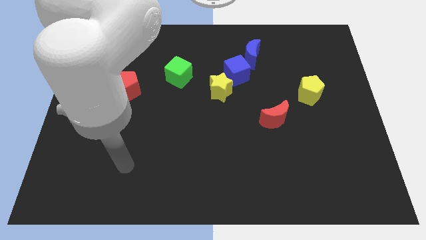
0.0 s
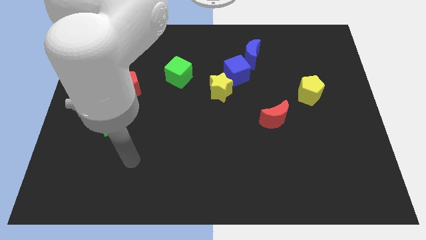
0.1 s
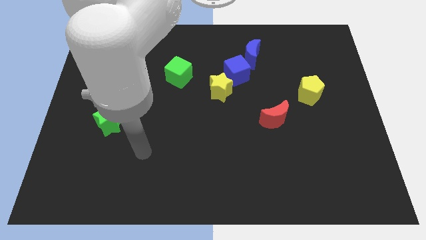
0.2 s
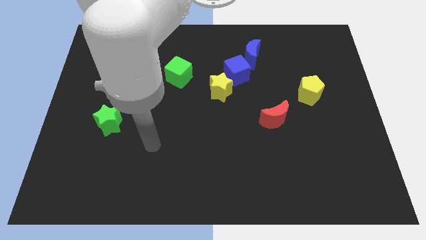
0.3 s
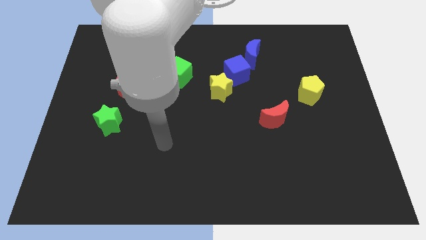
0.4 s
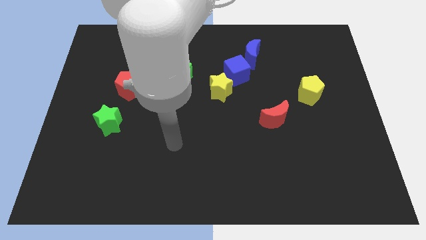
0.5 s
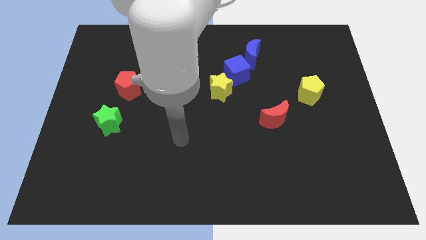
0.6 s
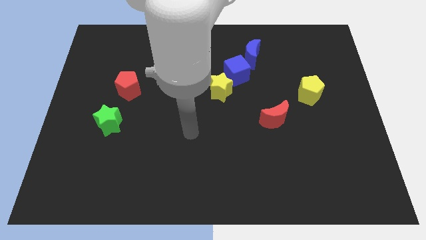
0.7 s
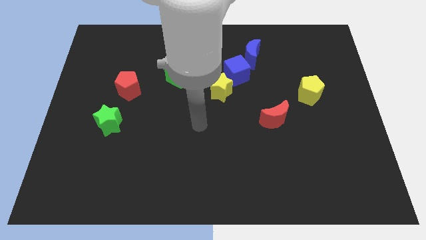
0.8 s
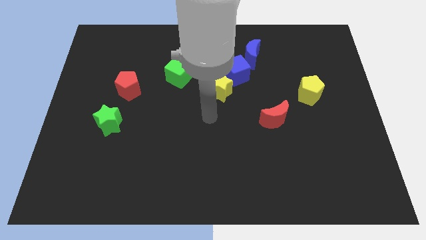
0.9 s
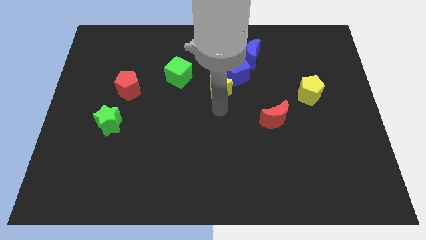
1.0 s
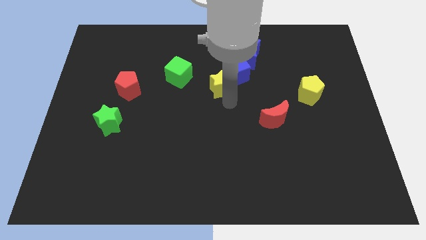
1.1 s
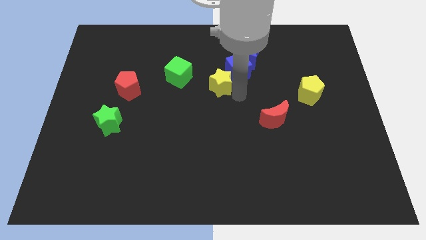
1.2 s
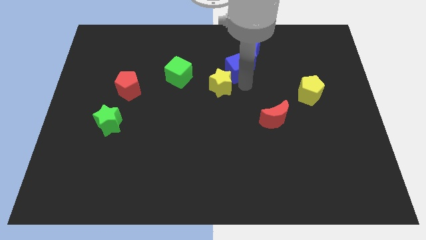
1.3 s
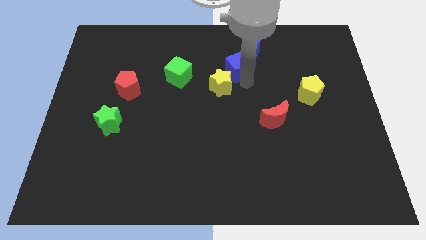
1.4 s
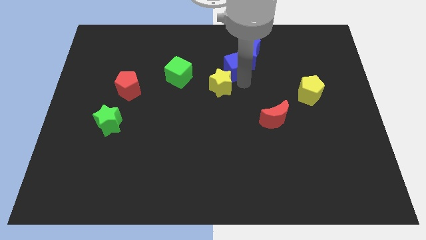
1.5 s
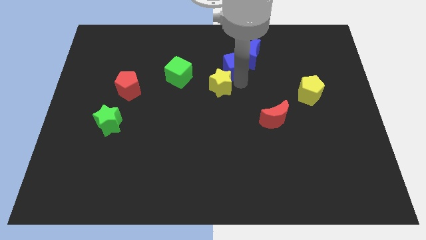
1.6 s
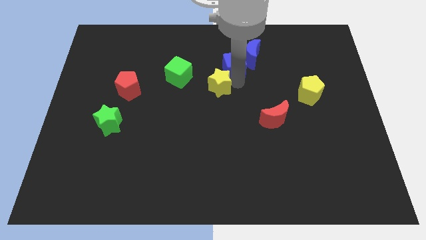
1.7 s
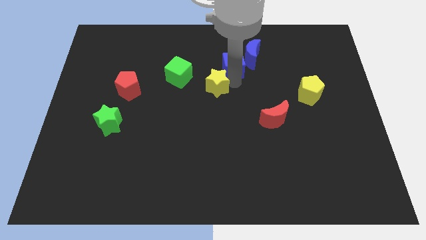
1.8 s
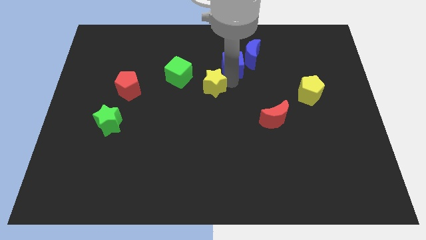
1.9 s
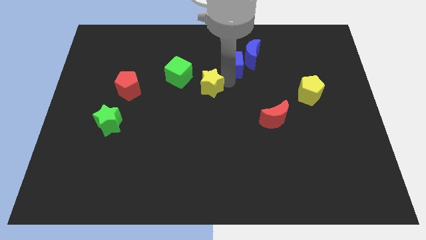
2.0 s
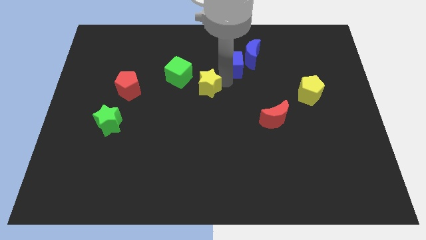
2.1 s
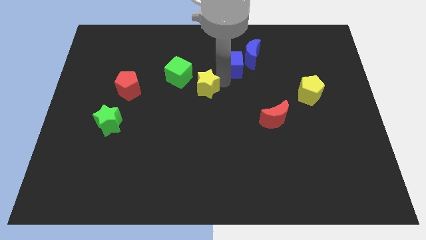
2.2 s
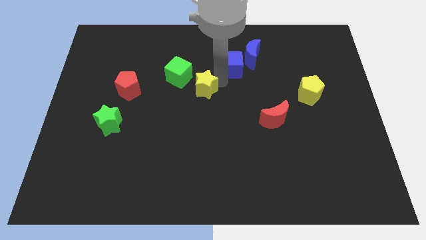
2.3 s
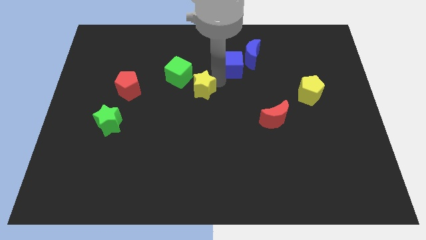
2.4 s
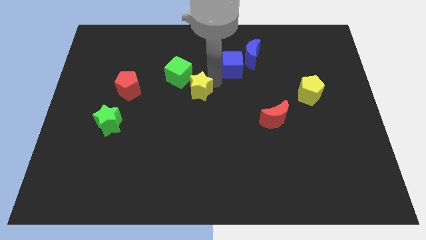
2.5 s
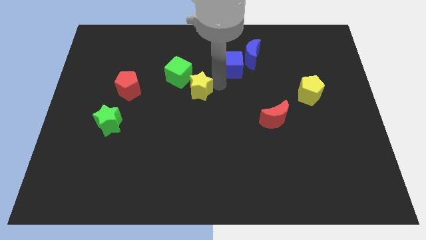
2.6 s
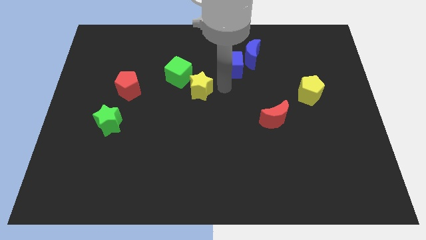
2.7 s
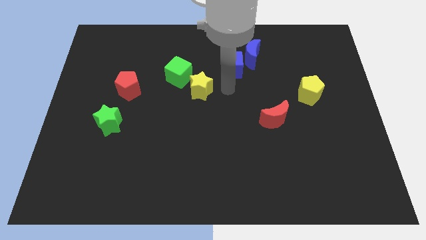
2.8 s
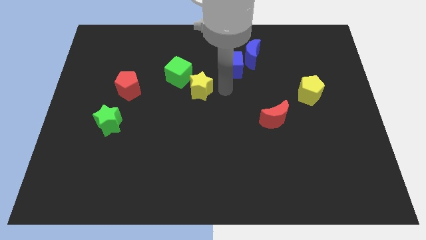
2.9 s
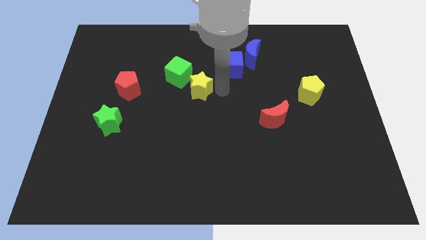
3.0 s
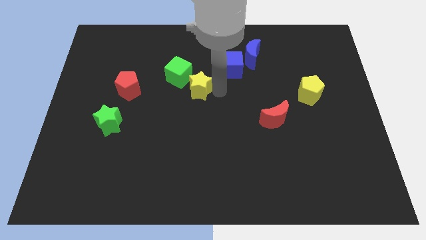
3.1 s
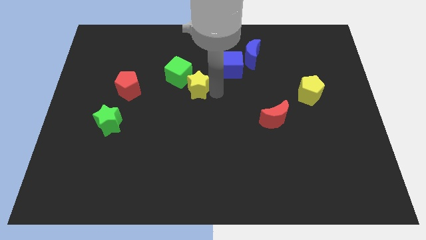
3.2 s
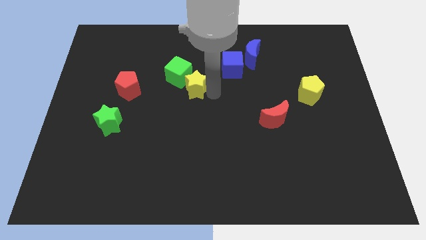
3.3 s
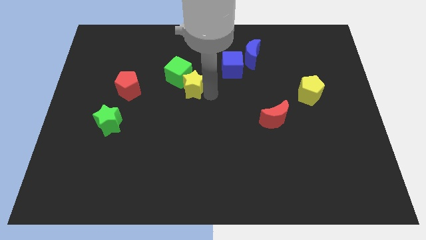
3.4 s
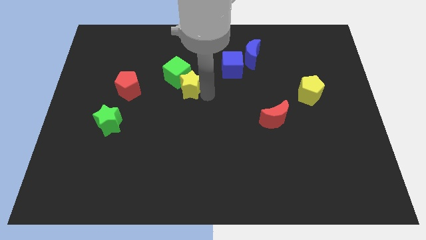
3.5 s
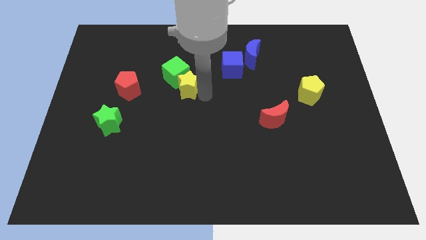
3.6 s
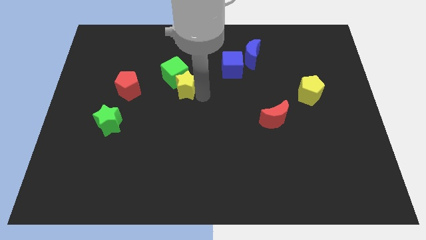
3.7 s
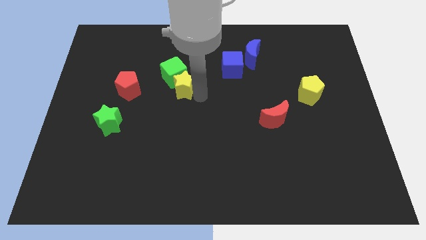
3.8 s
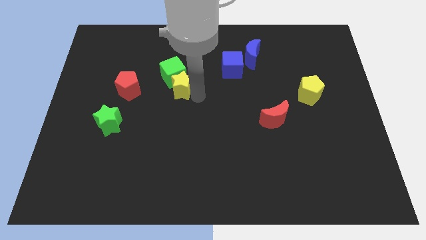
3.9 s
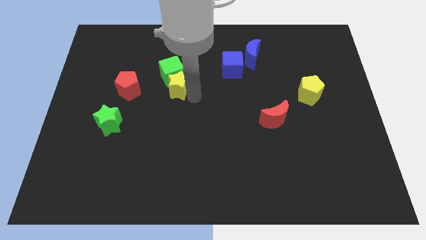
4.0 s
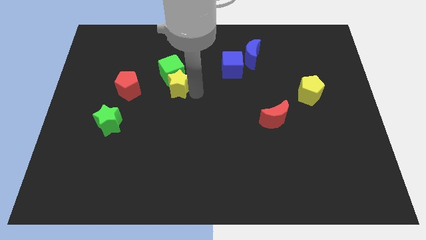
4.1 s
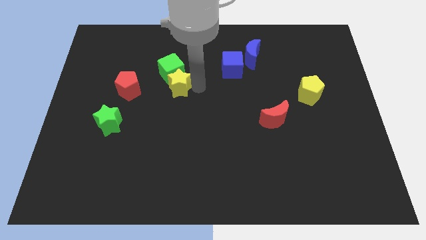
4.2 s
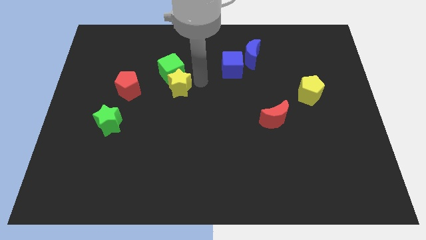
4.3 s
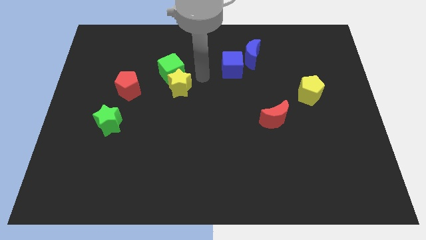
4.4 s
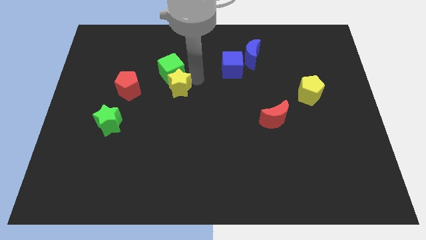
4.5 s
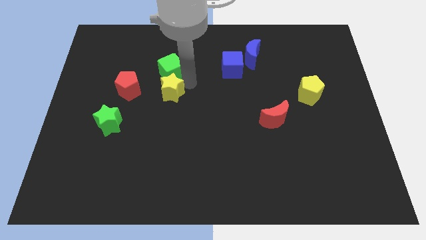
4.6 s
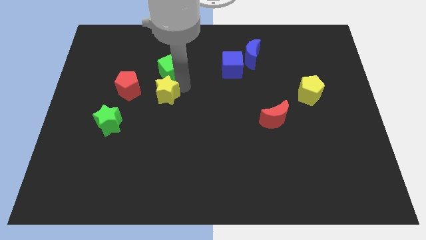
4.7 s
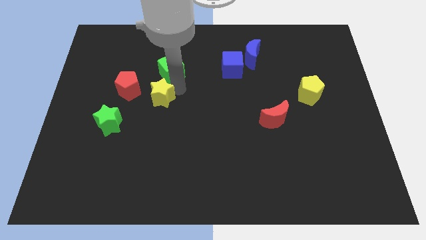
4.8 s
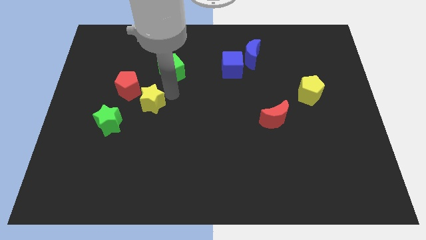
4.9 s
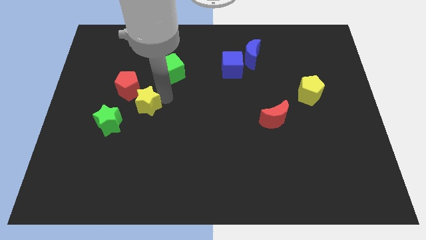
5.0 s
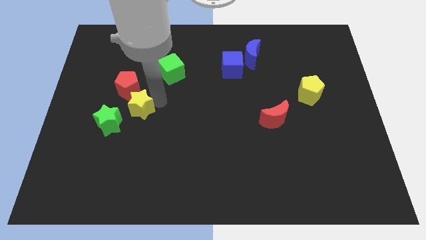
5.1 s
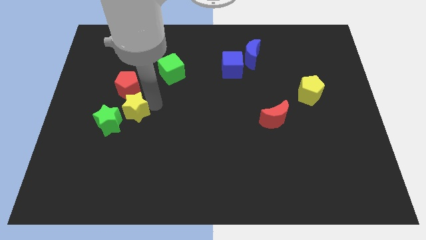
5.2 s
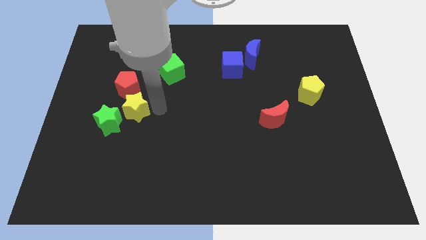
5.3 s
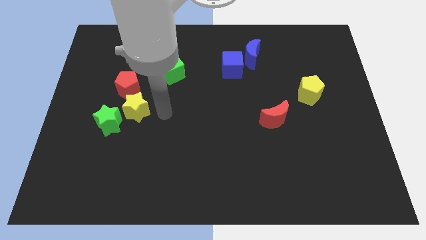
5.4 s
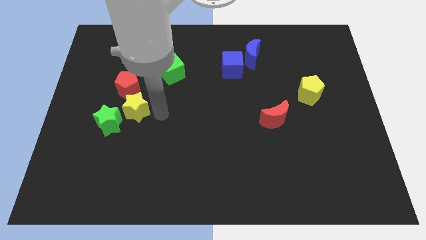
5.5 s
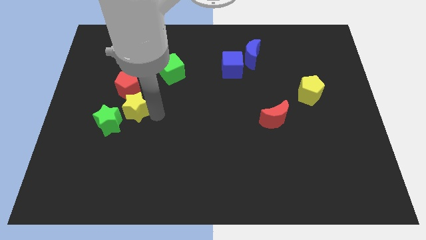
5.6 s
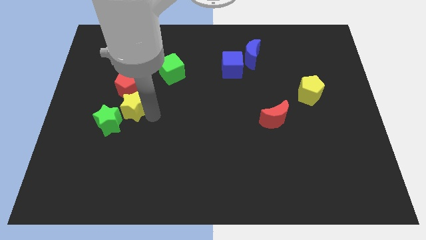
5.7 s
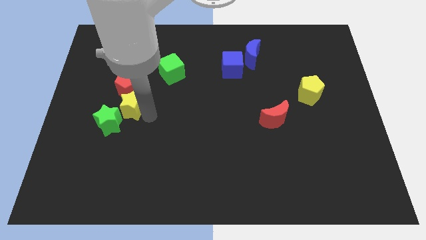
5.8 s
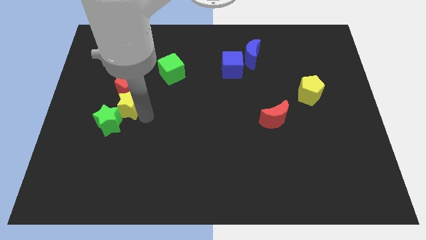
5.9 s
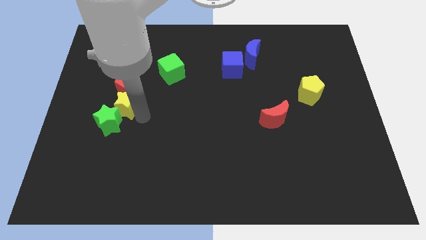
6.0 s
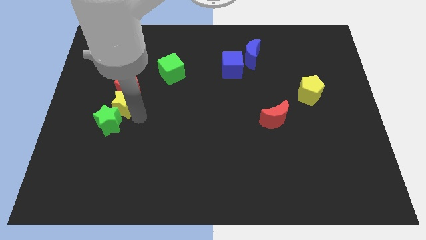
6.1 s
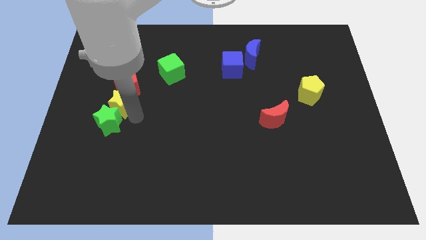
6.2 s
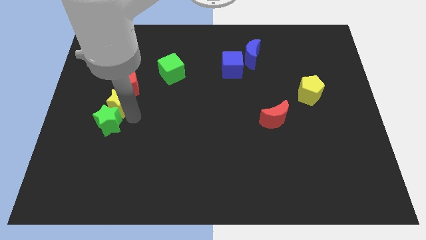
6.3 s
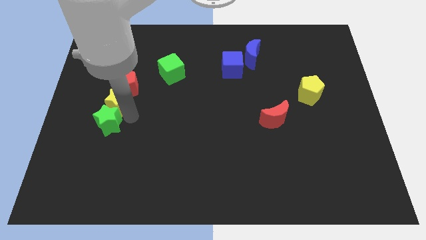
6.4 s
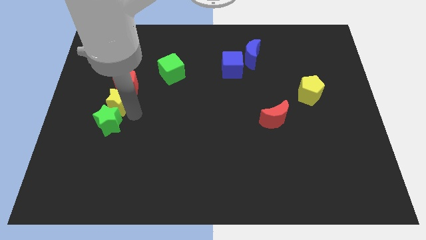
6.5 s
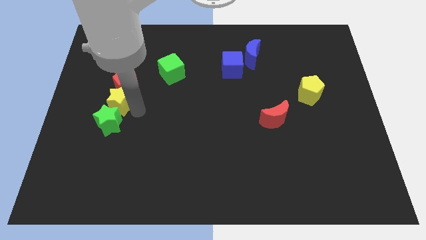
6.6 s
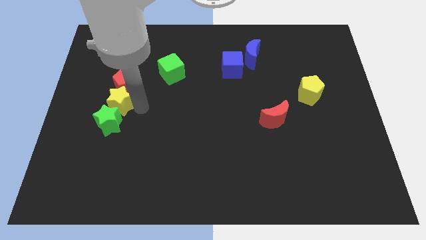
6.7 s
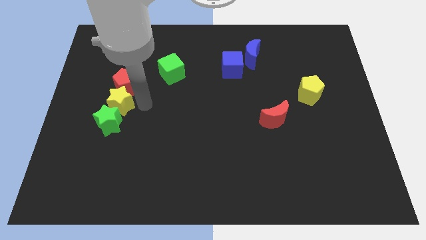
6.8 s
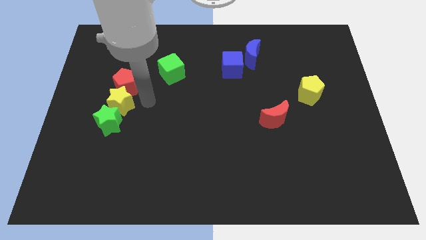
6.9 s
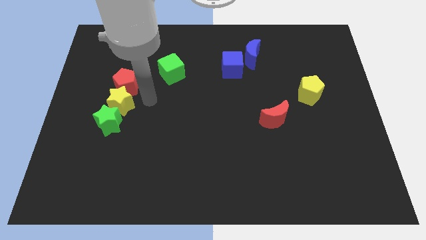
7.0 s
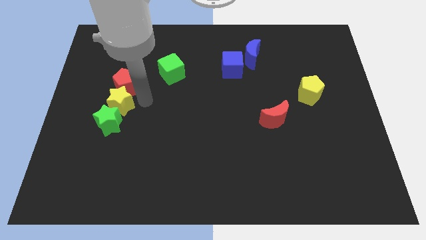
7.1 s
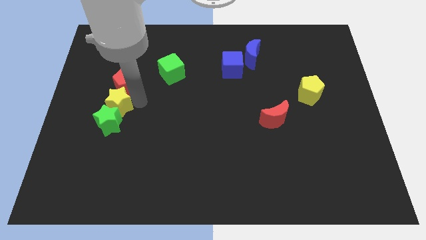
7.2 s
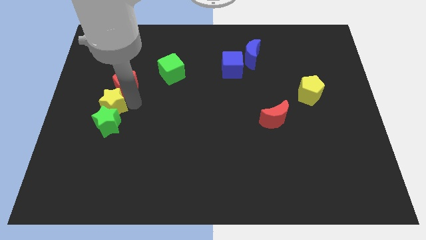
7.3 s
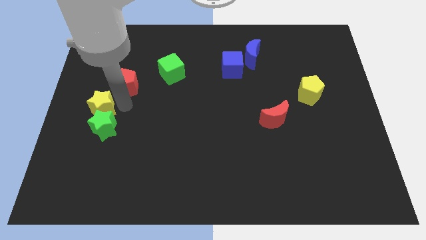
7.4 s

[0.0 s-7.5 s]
put the yellow star to the left side
